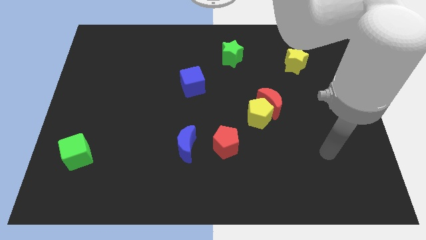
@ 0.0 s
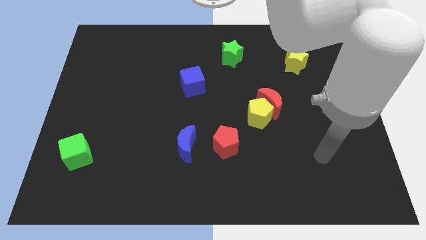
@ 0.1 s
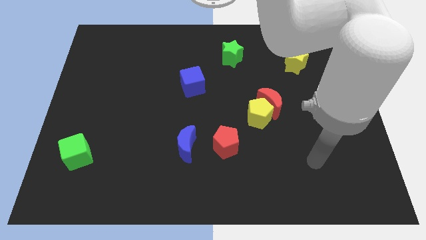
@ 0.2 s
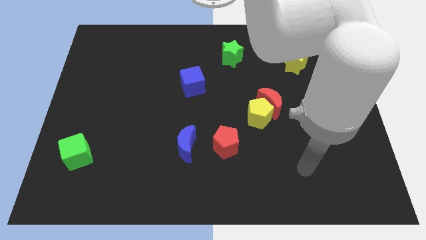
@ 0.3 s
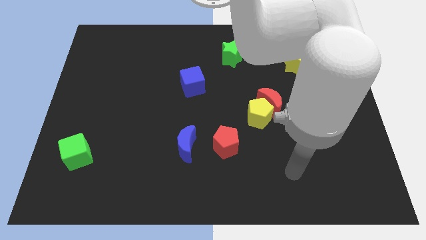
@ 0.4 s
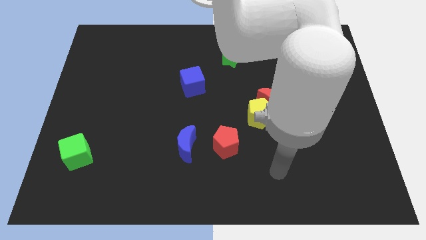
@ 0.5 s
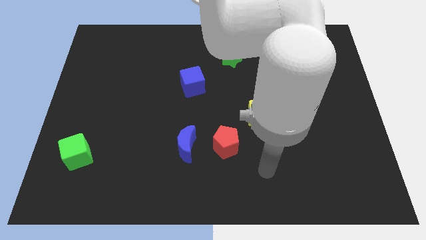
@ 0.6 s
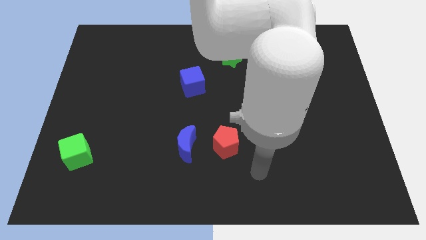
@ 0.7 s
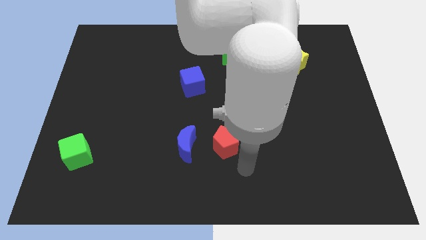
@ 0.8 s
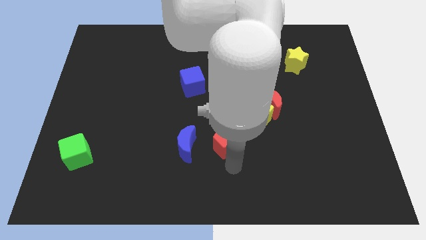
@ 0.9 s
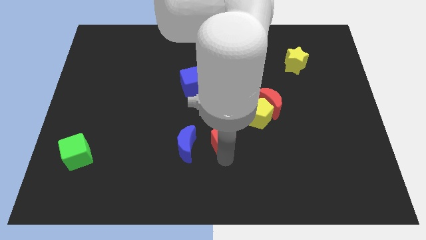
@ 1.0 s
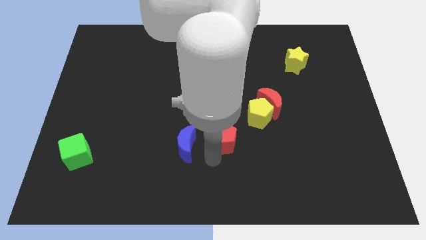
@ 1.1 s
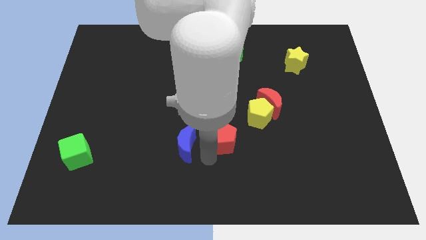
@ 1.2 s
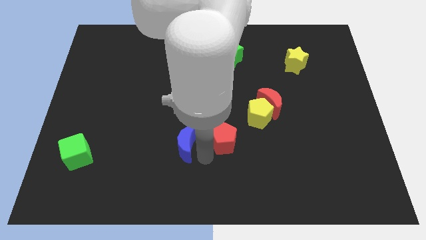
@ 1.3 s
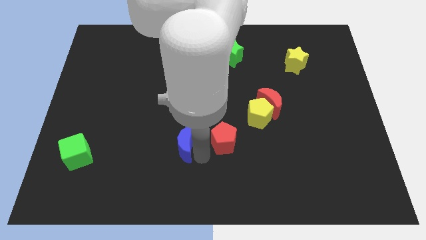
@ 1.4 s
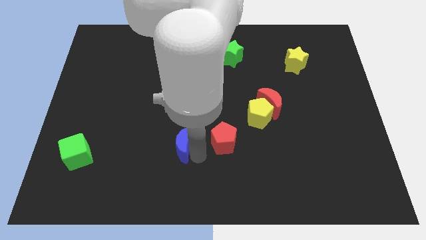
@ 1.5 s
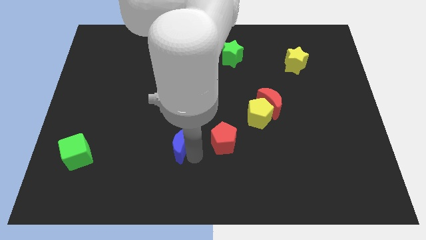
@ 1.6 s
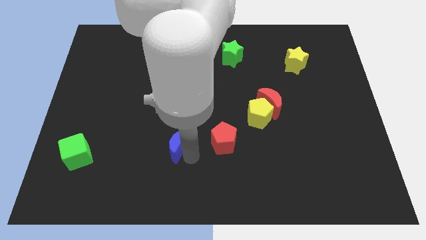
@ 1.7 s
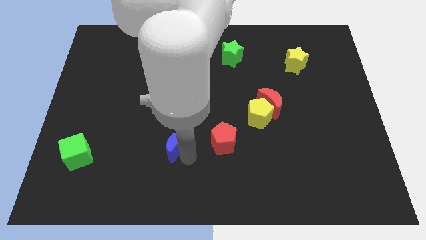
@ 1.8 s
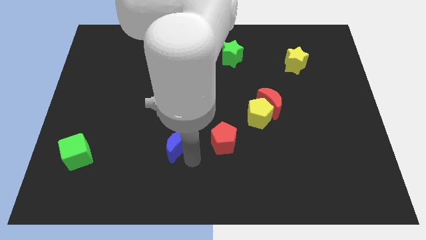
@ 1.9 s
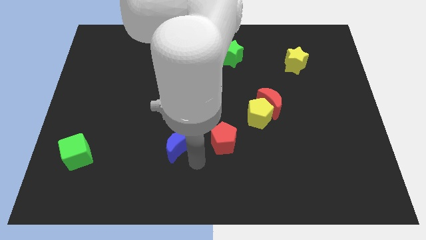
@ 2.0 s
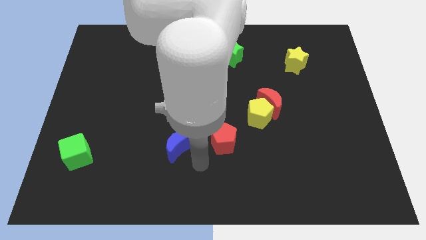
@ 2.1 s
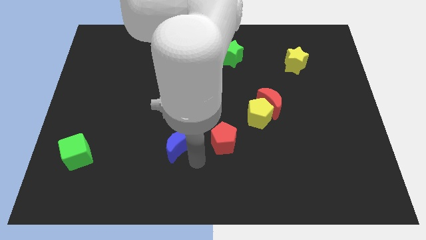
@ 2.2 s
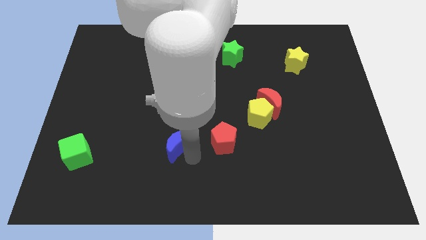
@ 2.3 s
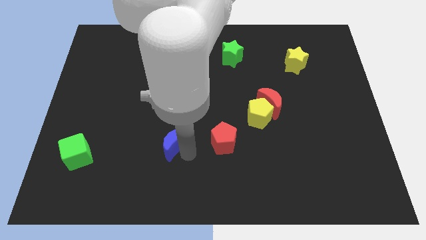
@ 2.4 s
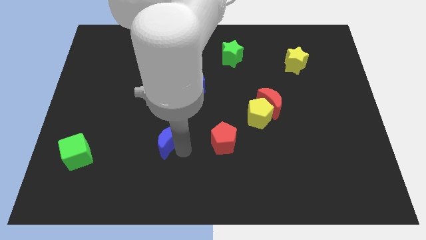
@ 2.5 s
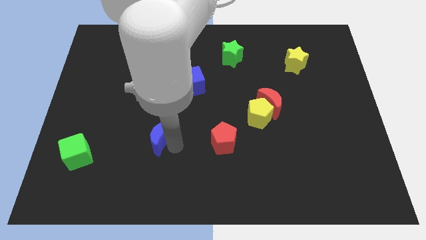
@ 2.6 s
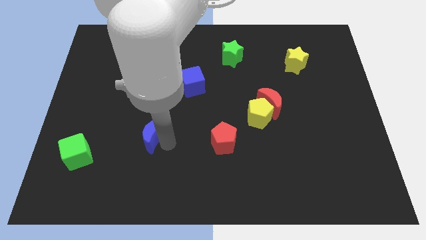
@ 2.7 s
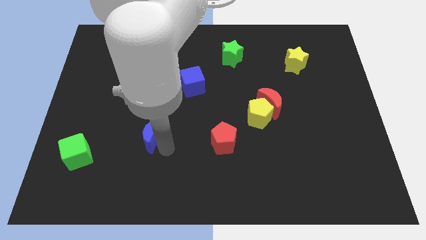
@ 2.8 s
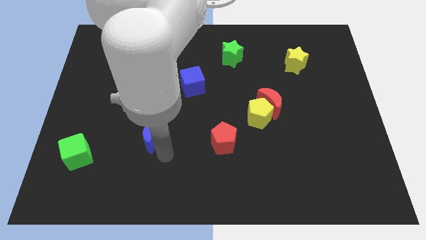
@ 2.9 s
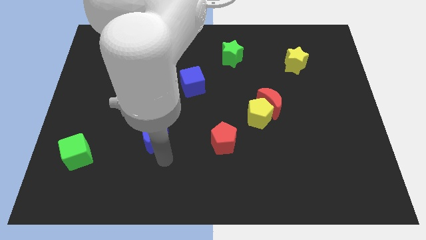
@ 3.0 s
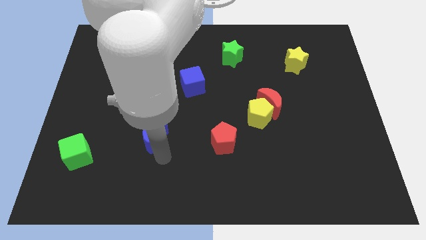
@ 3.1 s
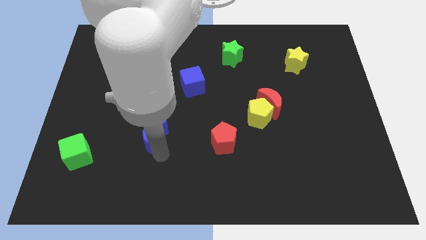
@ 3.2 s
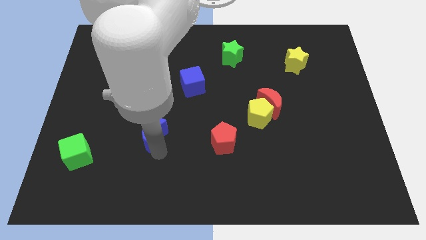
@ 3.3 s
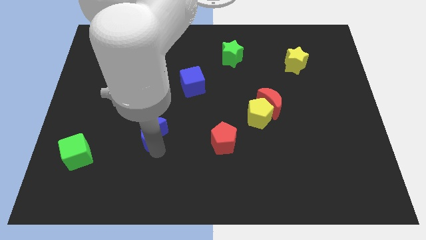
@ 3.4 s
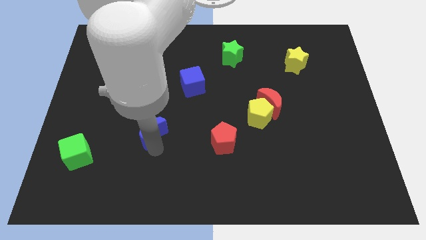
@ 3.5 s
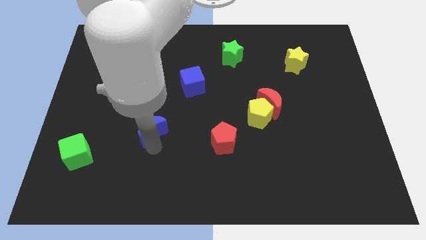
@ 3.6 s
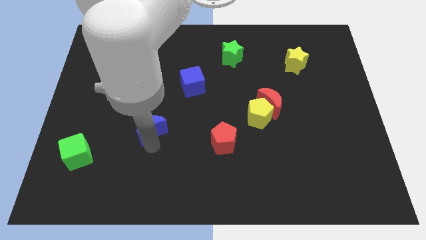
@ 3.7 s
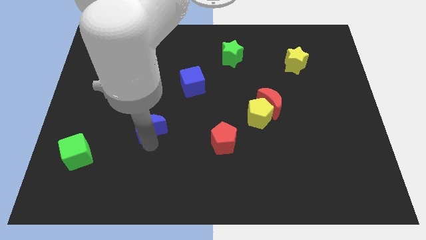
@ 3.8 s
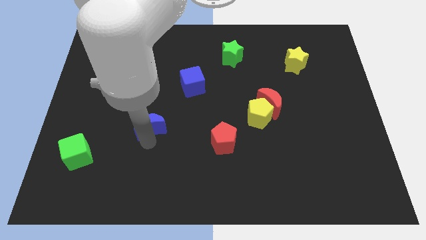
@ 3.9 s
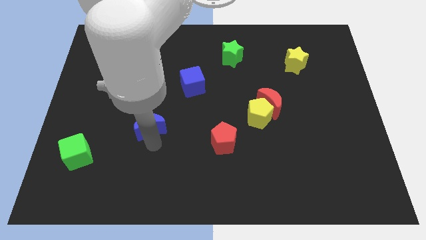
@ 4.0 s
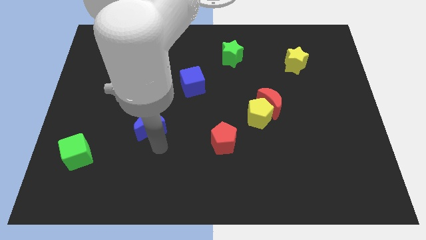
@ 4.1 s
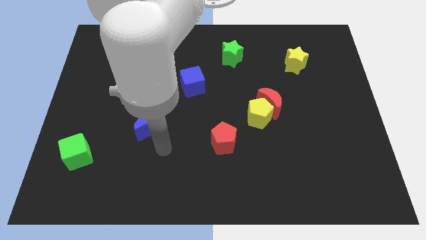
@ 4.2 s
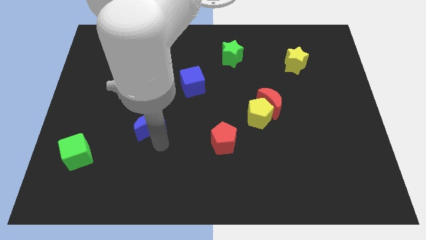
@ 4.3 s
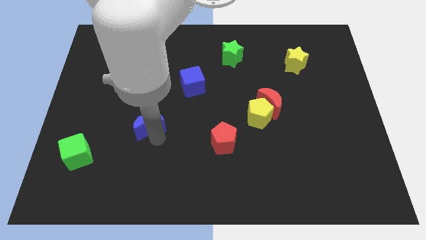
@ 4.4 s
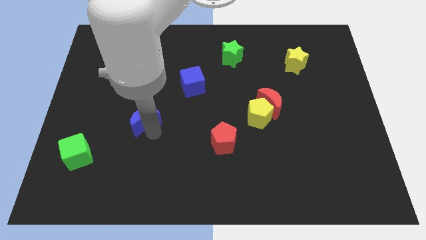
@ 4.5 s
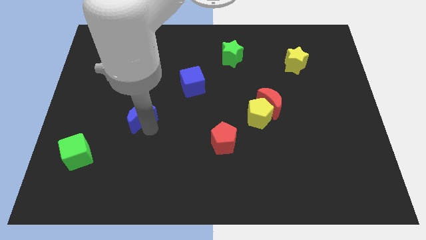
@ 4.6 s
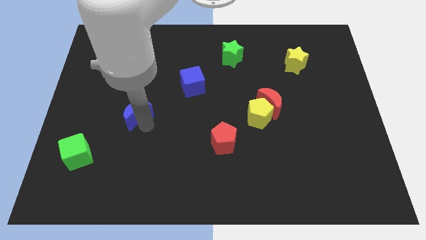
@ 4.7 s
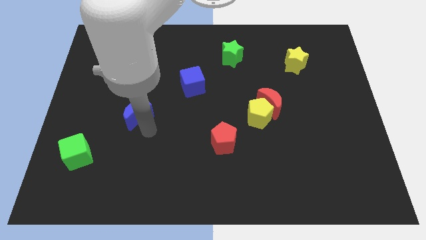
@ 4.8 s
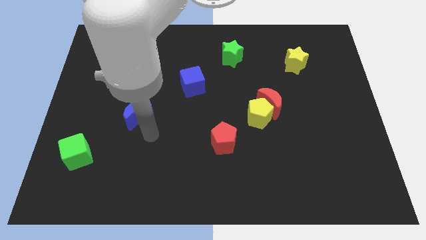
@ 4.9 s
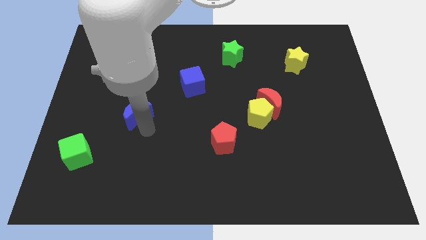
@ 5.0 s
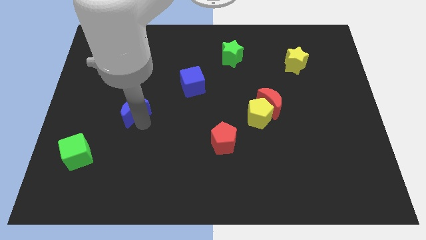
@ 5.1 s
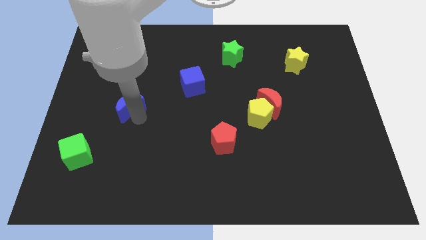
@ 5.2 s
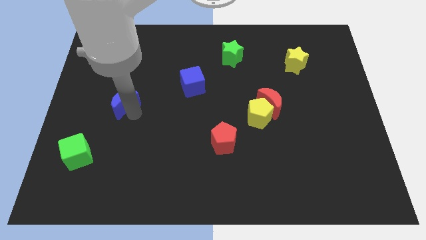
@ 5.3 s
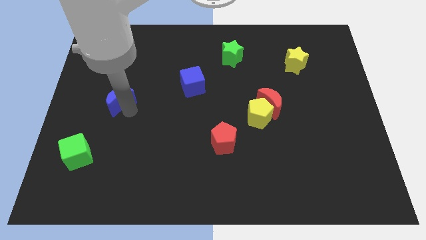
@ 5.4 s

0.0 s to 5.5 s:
push the blue moon up and to the left diagonally

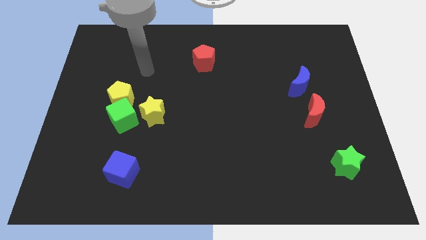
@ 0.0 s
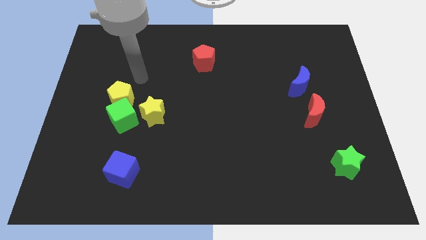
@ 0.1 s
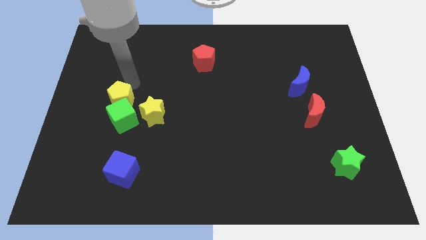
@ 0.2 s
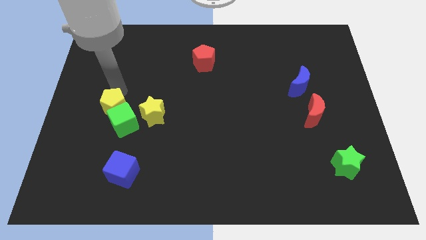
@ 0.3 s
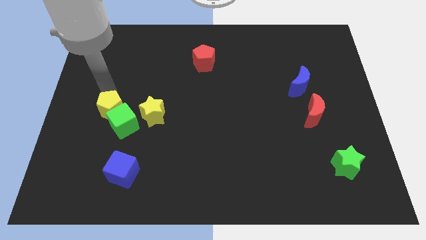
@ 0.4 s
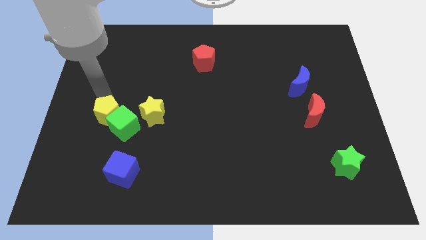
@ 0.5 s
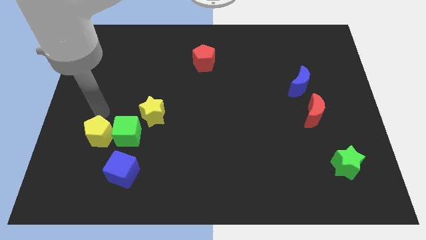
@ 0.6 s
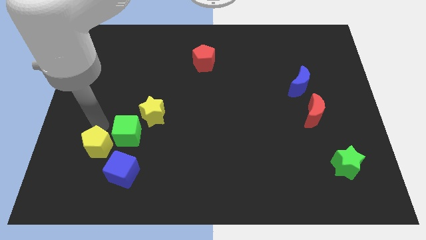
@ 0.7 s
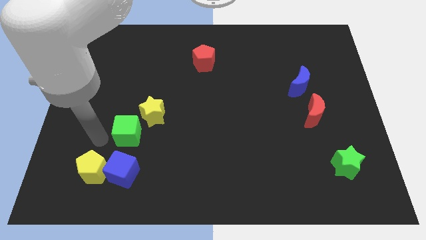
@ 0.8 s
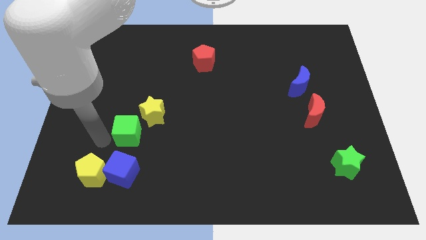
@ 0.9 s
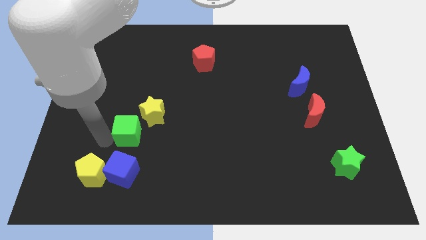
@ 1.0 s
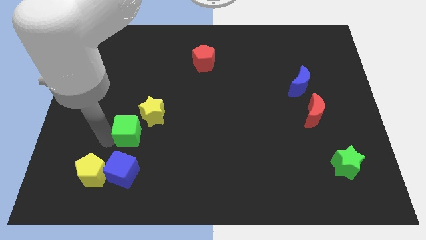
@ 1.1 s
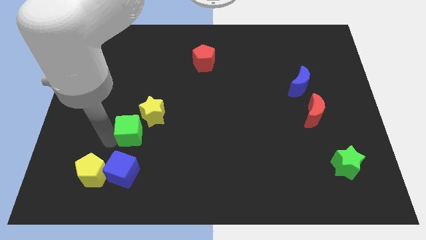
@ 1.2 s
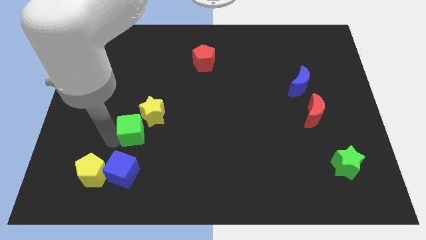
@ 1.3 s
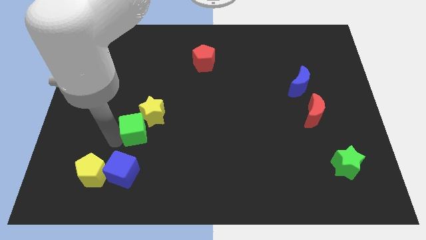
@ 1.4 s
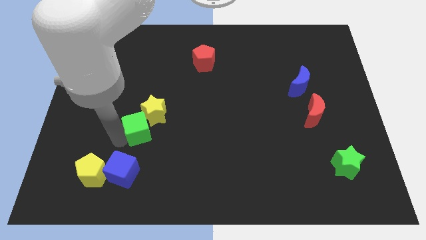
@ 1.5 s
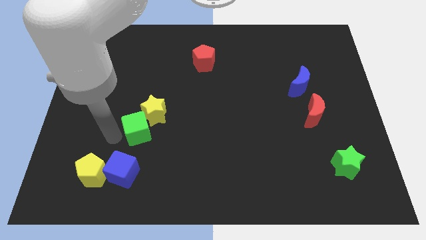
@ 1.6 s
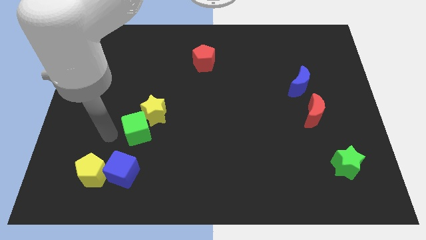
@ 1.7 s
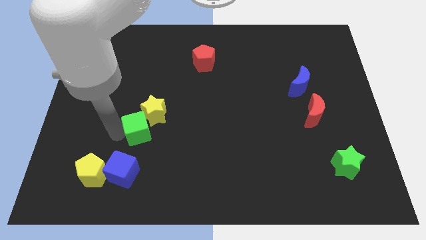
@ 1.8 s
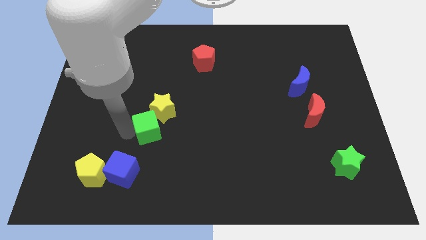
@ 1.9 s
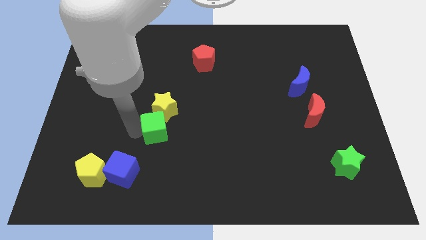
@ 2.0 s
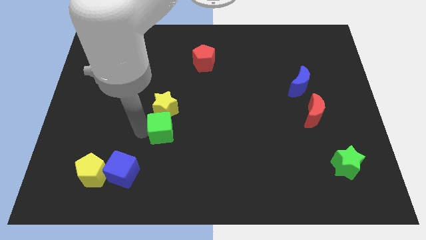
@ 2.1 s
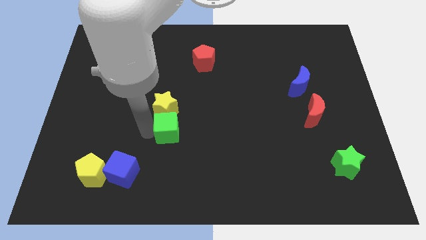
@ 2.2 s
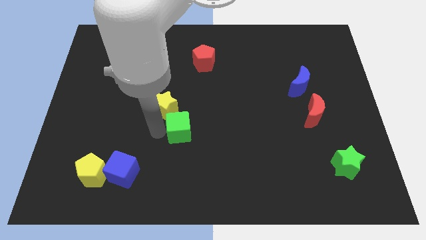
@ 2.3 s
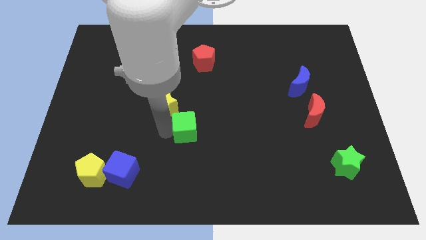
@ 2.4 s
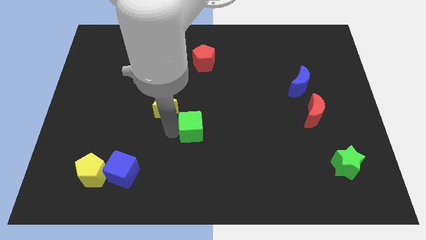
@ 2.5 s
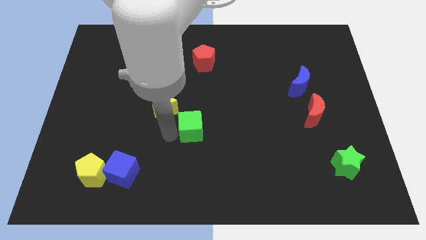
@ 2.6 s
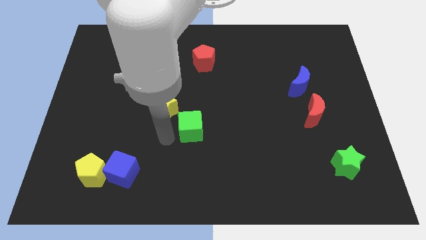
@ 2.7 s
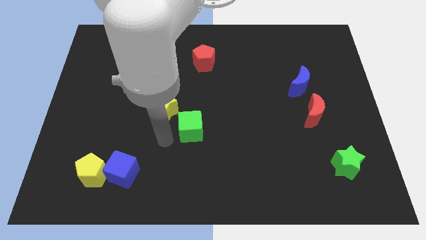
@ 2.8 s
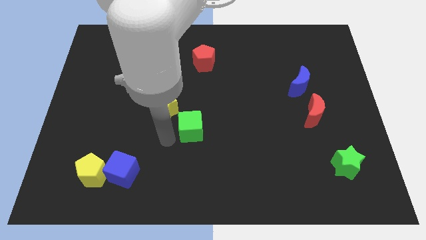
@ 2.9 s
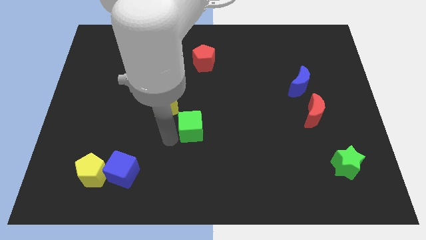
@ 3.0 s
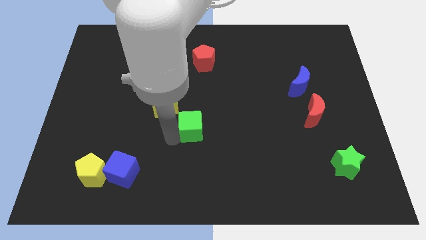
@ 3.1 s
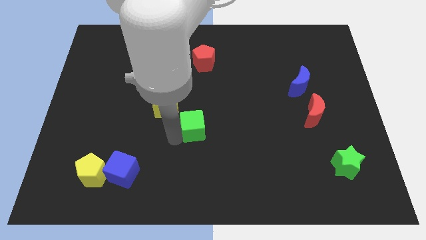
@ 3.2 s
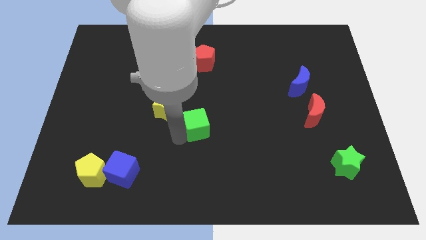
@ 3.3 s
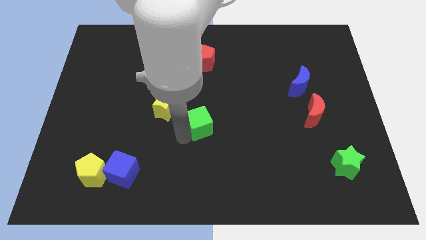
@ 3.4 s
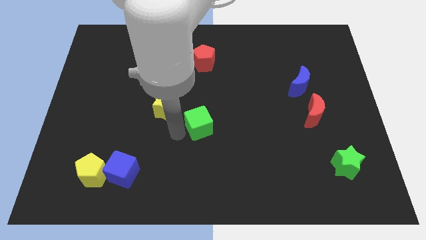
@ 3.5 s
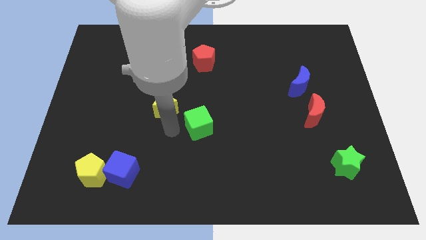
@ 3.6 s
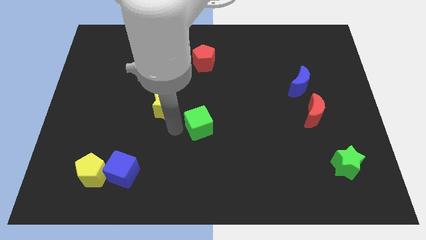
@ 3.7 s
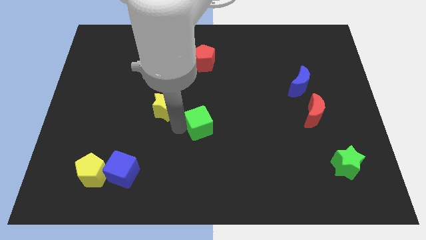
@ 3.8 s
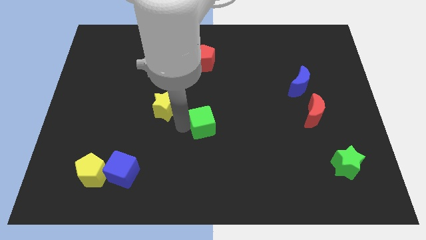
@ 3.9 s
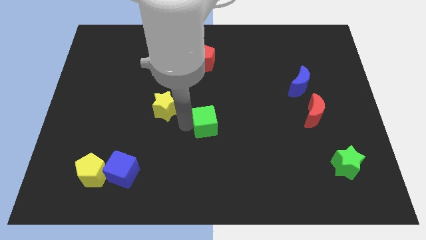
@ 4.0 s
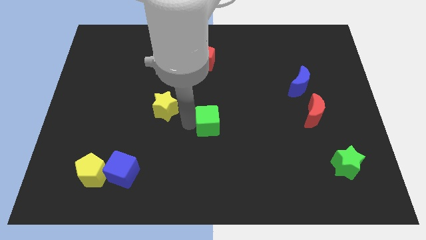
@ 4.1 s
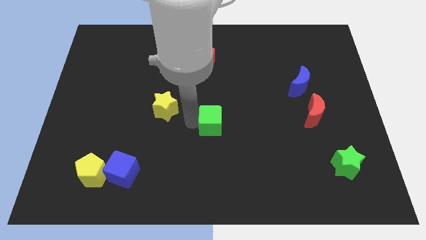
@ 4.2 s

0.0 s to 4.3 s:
slide the green cube to the right
